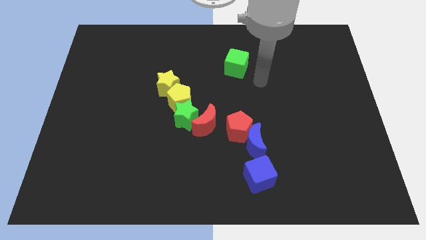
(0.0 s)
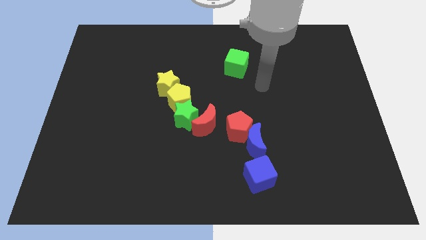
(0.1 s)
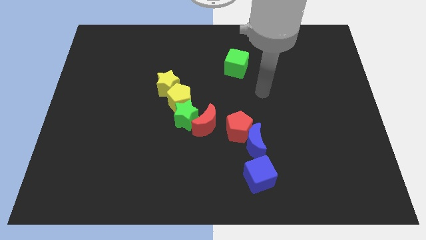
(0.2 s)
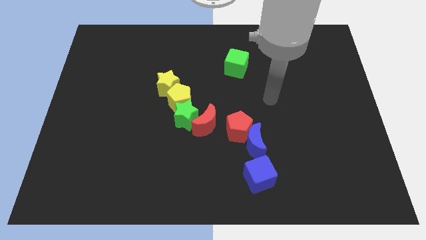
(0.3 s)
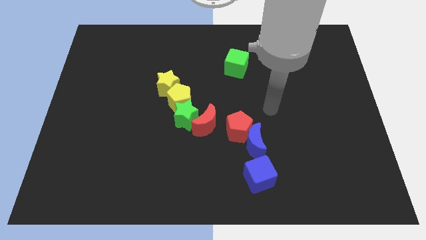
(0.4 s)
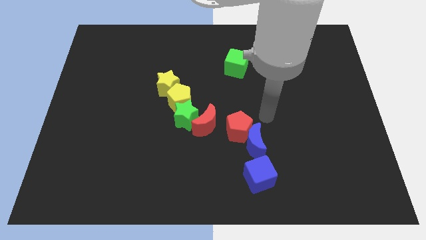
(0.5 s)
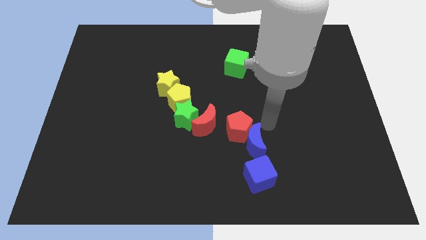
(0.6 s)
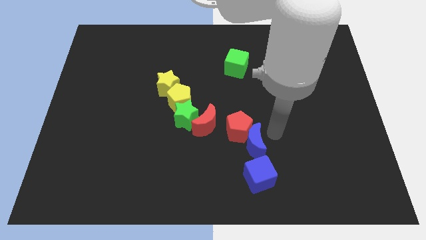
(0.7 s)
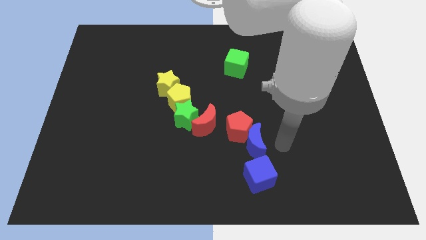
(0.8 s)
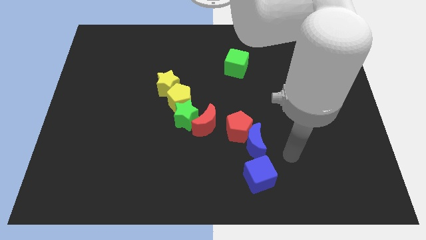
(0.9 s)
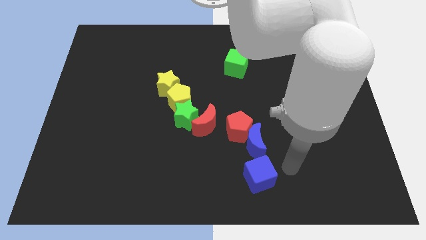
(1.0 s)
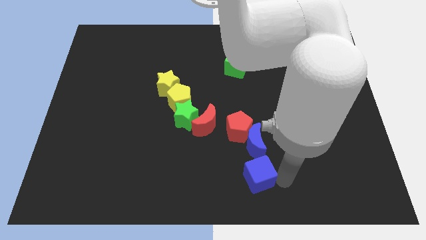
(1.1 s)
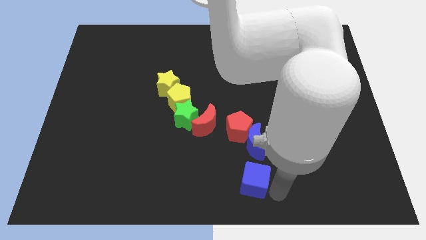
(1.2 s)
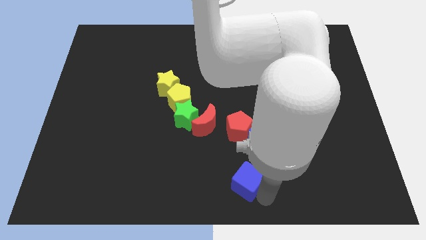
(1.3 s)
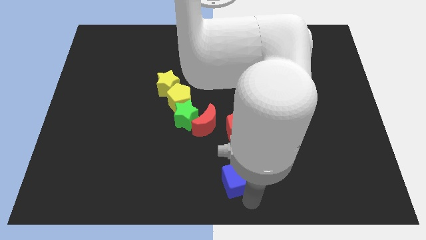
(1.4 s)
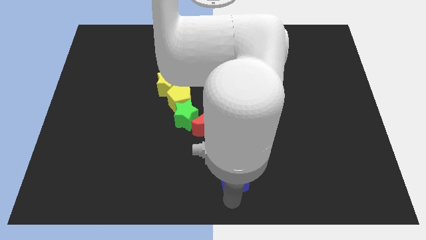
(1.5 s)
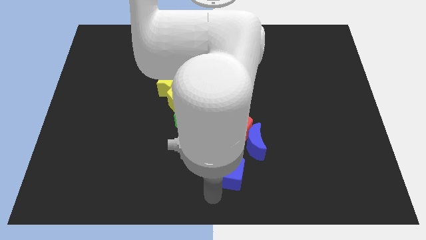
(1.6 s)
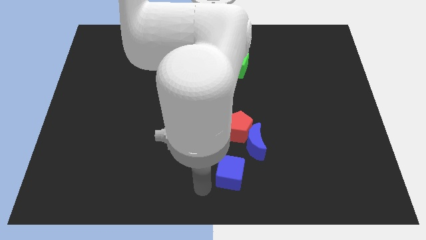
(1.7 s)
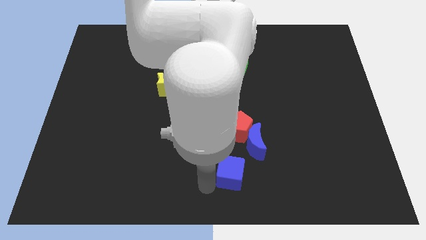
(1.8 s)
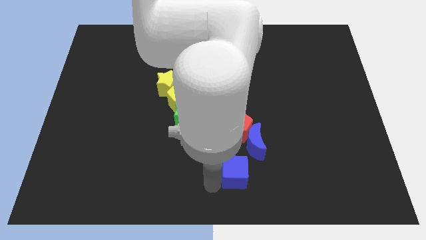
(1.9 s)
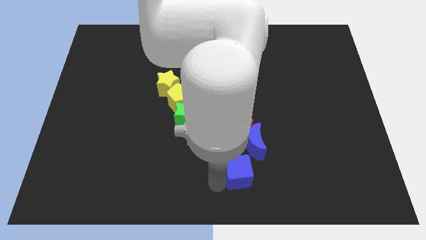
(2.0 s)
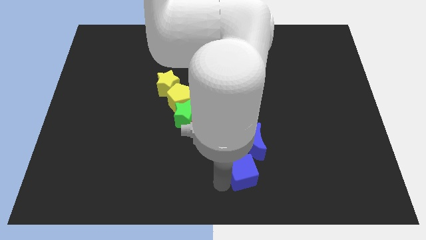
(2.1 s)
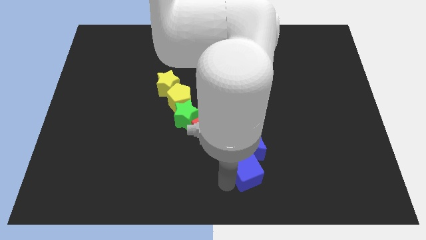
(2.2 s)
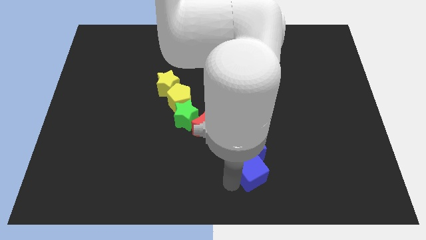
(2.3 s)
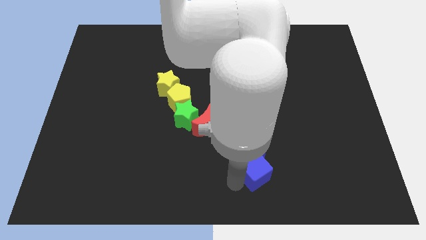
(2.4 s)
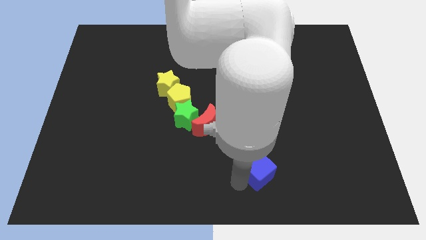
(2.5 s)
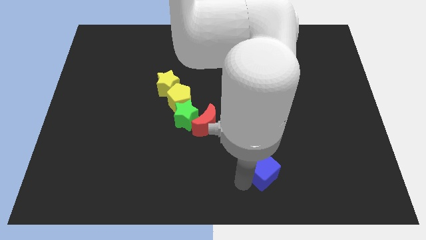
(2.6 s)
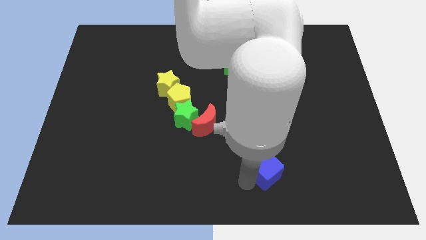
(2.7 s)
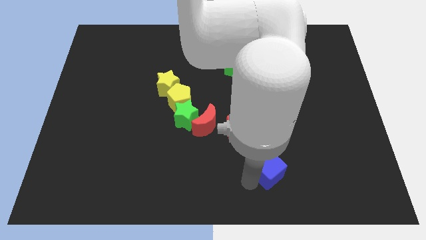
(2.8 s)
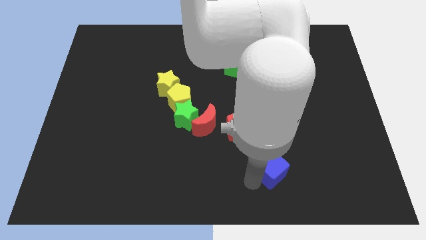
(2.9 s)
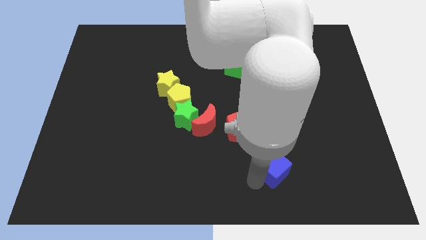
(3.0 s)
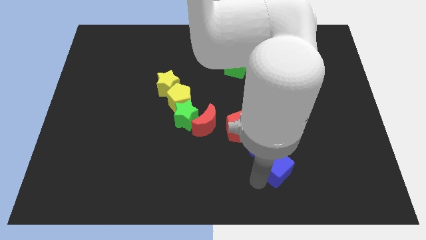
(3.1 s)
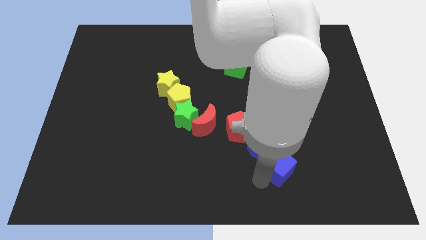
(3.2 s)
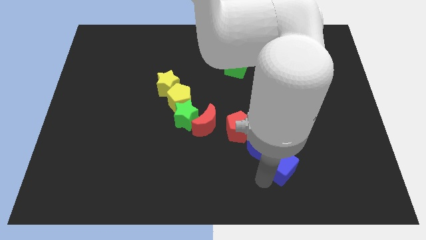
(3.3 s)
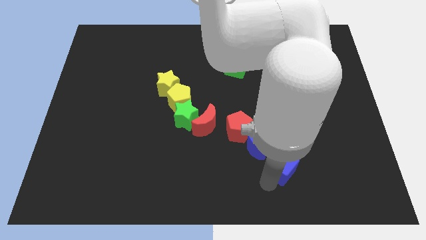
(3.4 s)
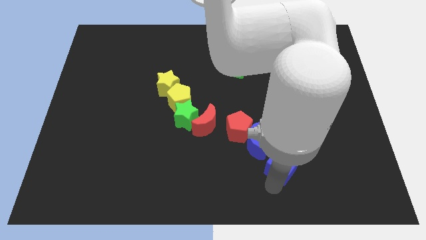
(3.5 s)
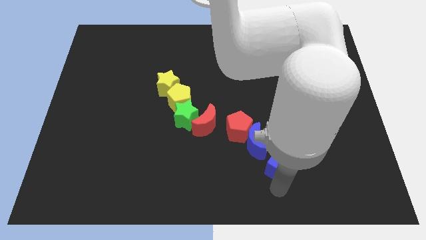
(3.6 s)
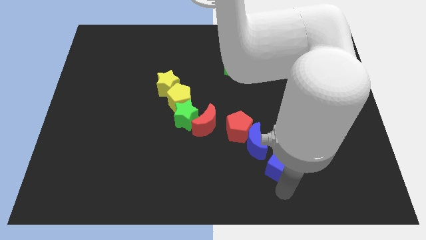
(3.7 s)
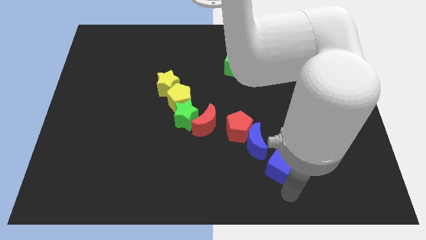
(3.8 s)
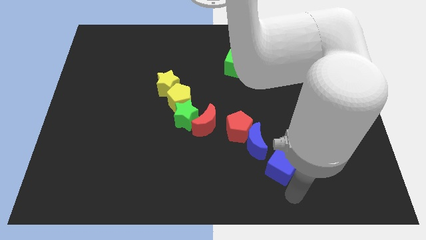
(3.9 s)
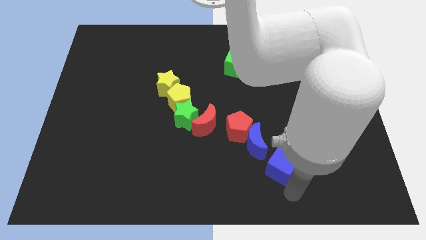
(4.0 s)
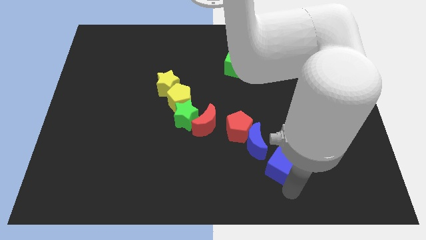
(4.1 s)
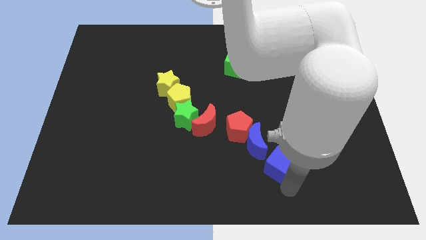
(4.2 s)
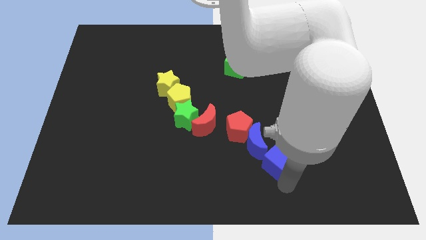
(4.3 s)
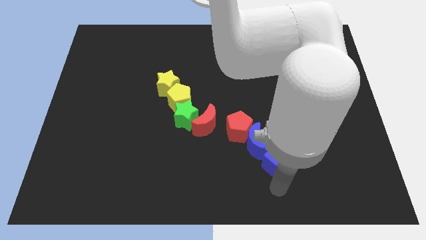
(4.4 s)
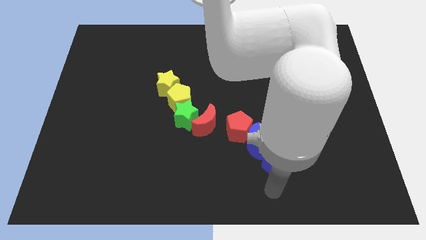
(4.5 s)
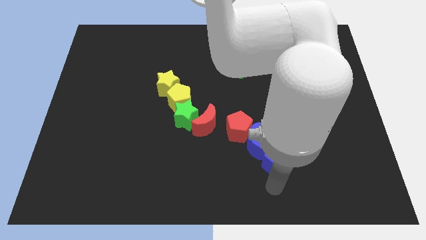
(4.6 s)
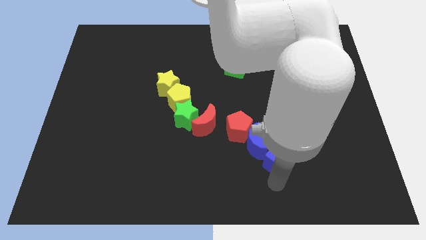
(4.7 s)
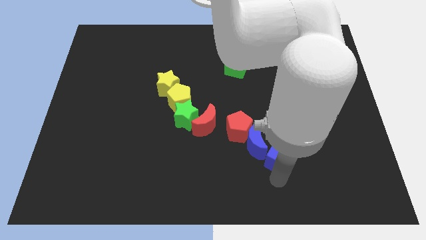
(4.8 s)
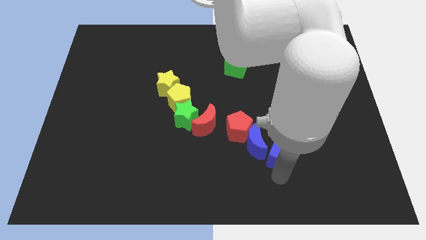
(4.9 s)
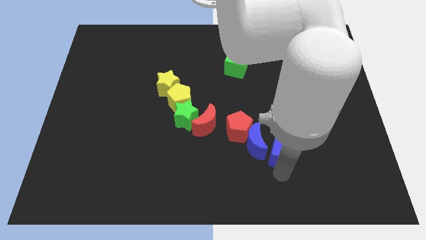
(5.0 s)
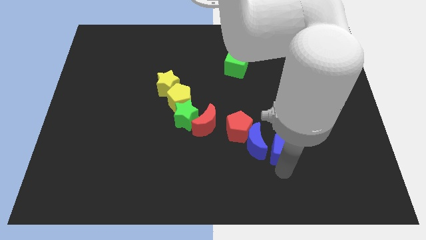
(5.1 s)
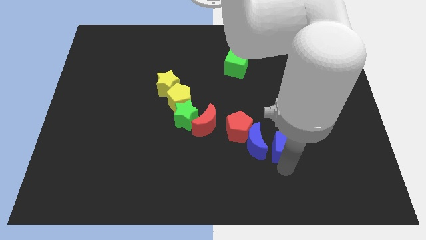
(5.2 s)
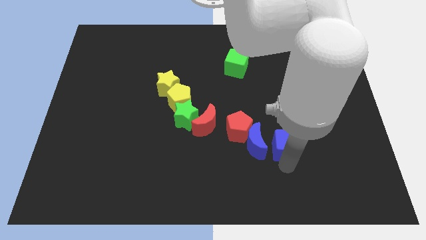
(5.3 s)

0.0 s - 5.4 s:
put the blue cube right of the red pentagon
